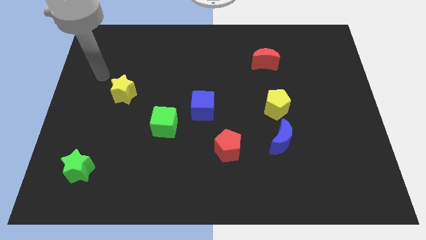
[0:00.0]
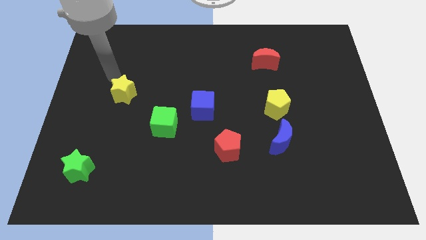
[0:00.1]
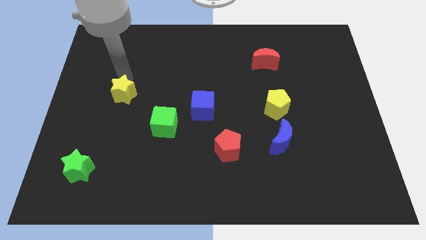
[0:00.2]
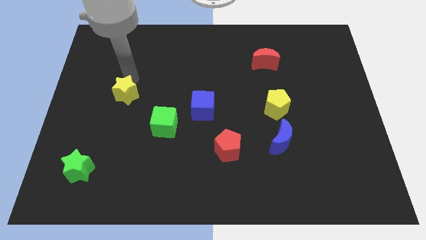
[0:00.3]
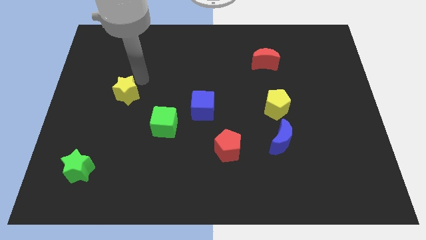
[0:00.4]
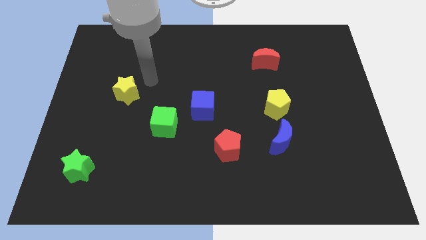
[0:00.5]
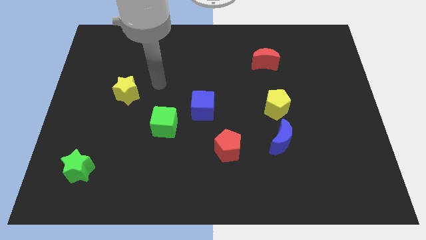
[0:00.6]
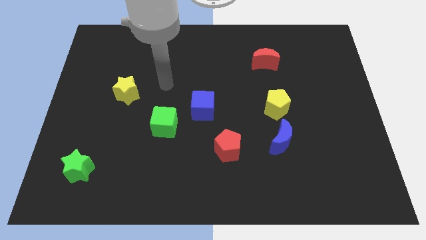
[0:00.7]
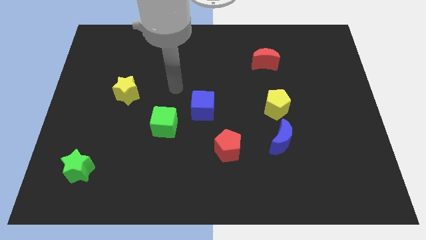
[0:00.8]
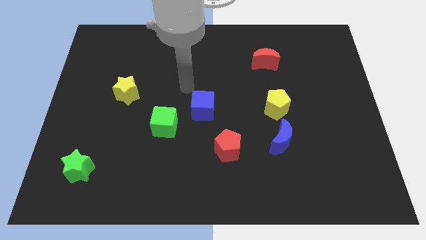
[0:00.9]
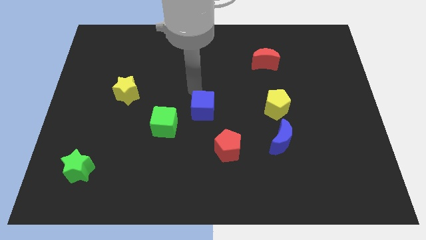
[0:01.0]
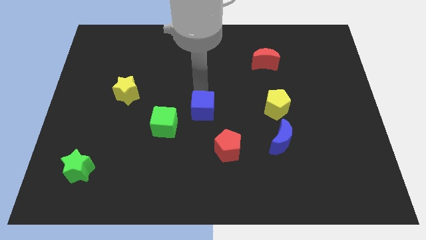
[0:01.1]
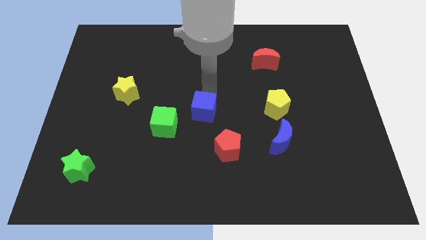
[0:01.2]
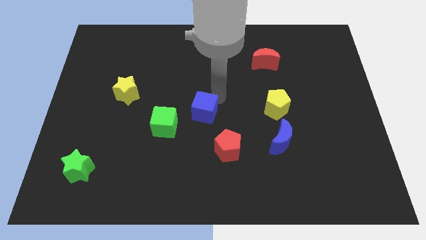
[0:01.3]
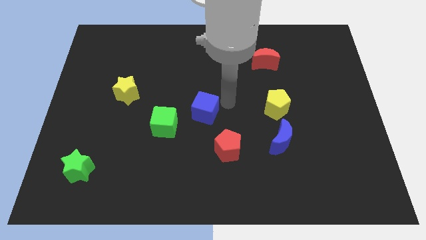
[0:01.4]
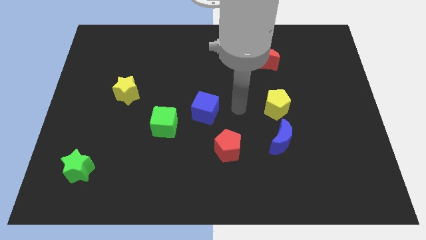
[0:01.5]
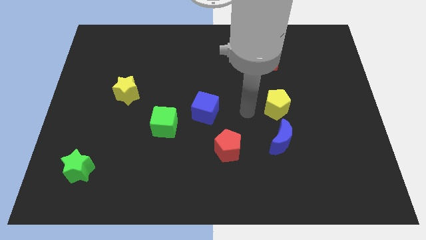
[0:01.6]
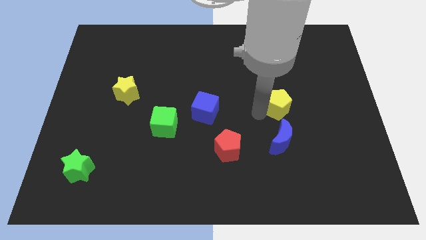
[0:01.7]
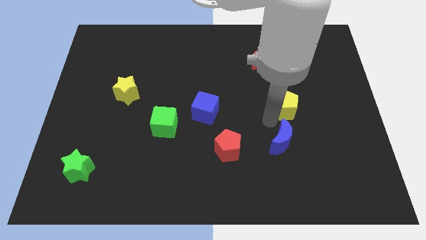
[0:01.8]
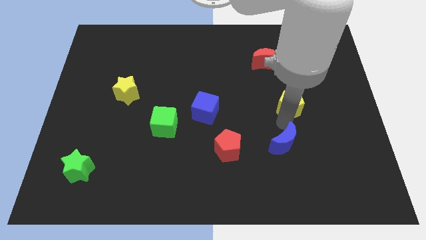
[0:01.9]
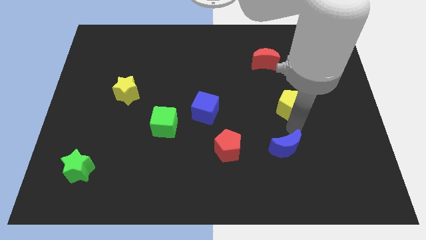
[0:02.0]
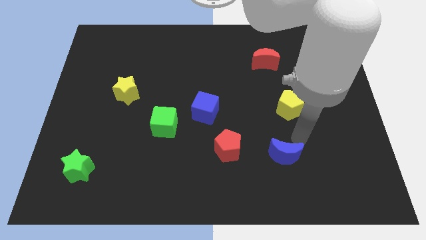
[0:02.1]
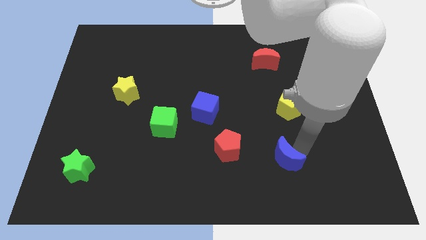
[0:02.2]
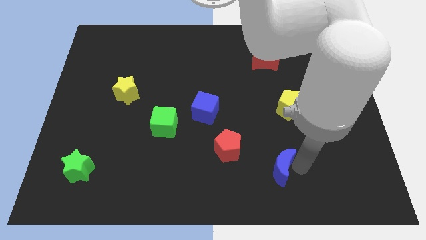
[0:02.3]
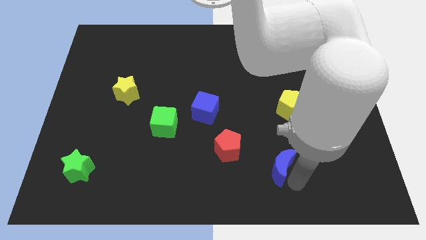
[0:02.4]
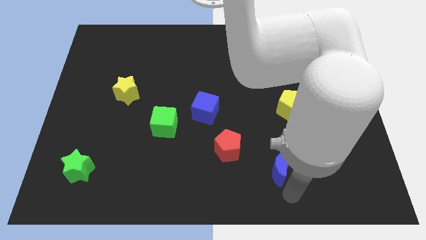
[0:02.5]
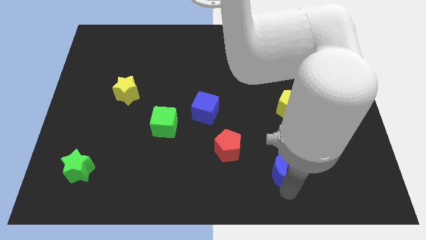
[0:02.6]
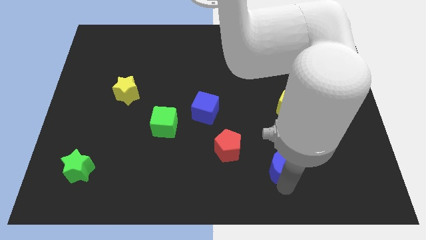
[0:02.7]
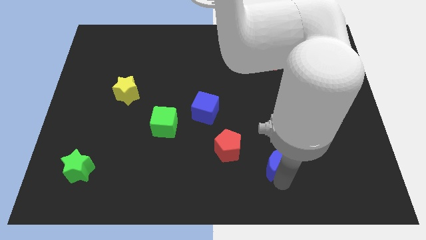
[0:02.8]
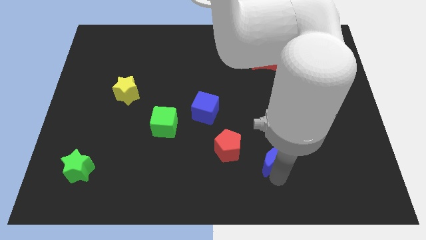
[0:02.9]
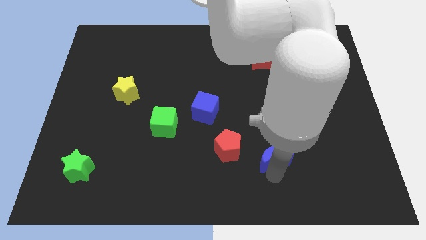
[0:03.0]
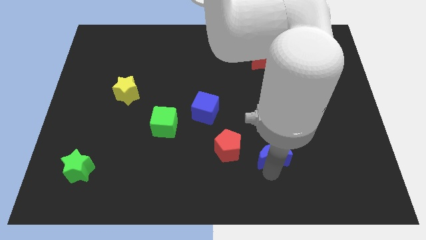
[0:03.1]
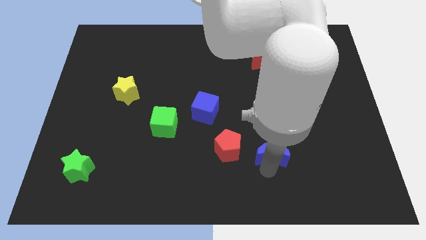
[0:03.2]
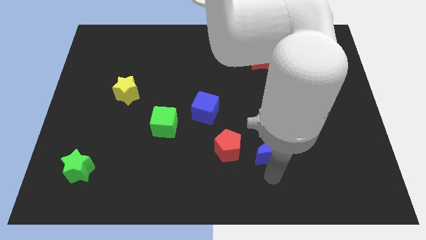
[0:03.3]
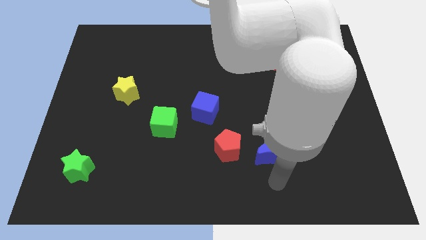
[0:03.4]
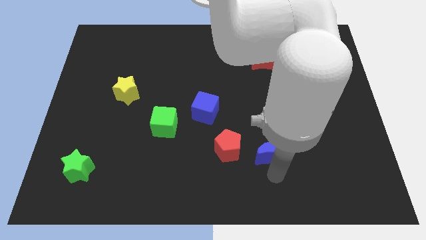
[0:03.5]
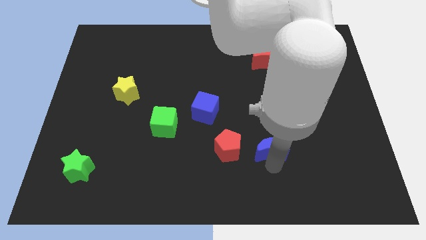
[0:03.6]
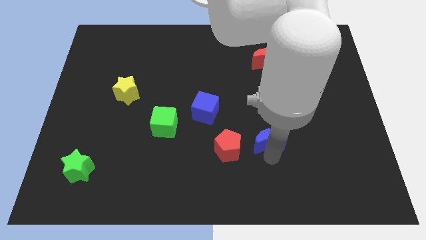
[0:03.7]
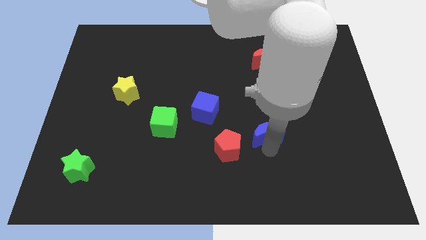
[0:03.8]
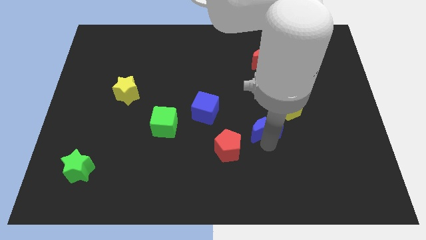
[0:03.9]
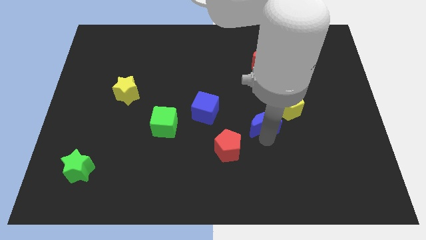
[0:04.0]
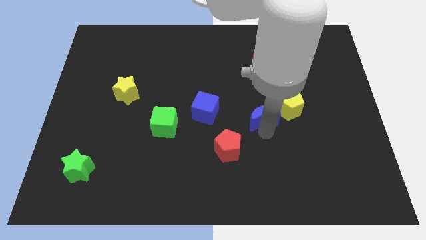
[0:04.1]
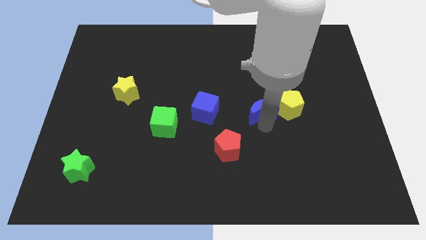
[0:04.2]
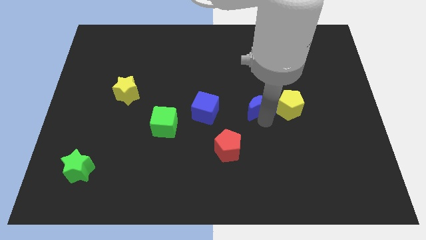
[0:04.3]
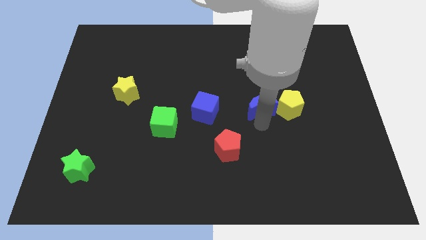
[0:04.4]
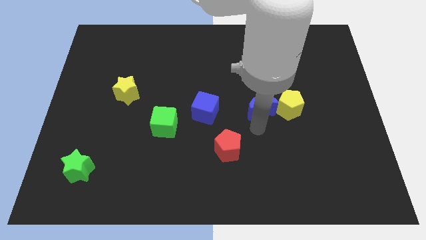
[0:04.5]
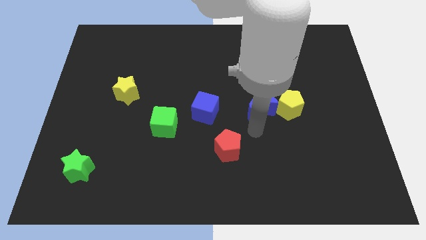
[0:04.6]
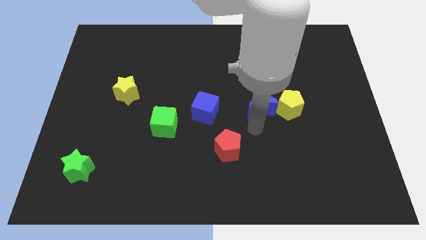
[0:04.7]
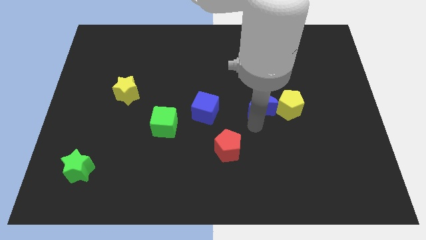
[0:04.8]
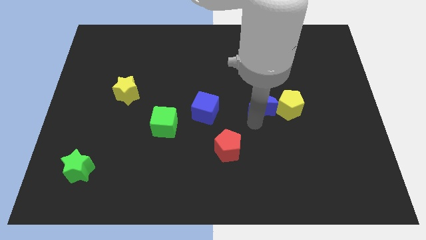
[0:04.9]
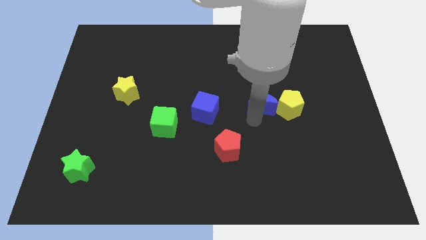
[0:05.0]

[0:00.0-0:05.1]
push the blue moon to the top left of the yellow pentagon

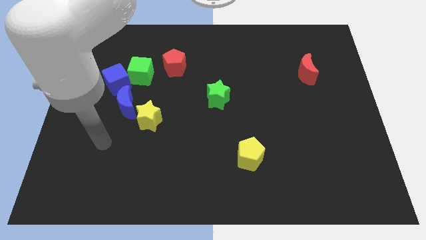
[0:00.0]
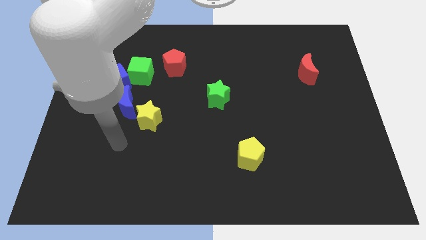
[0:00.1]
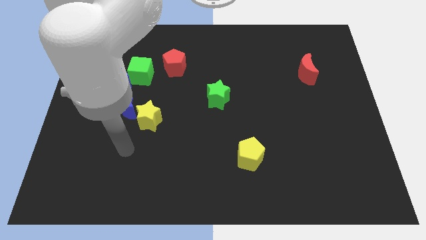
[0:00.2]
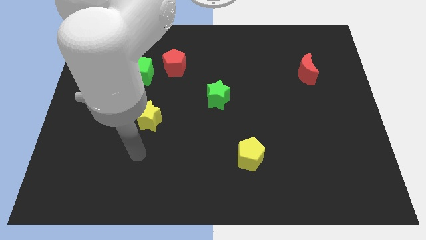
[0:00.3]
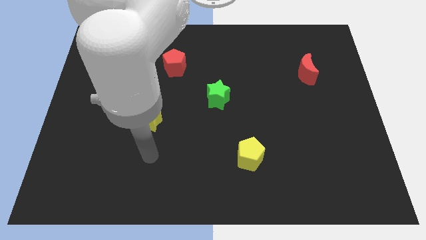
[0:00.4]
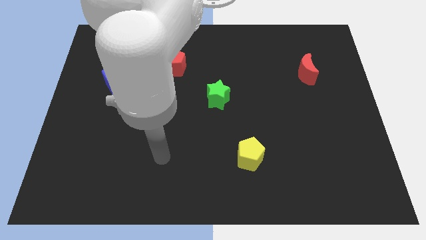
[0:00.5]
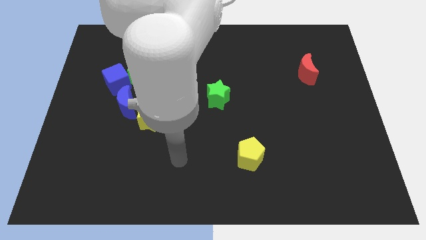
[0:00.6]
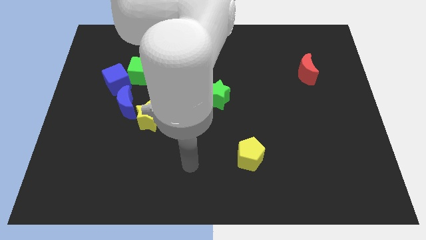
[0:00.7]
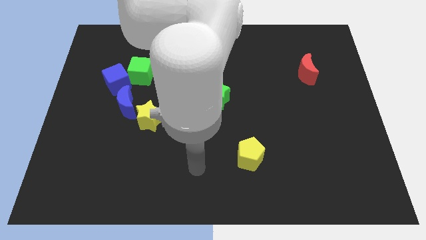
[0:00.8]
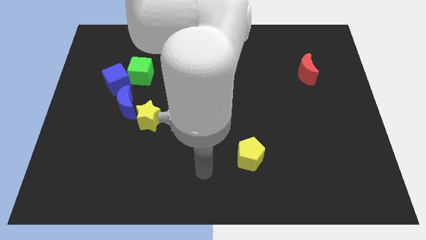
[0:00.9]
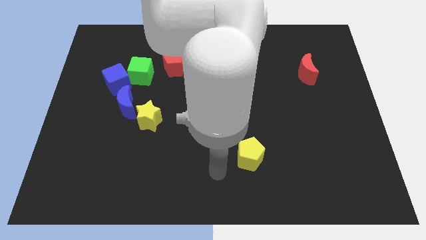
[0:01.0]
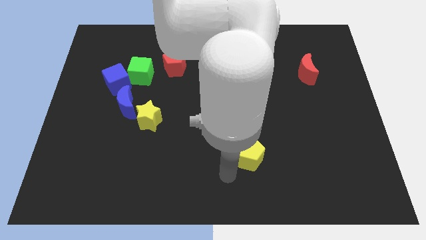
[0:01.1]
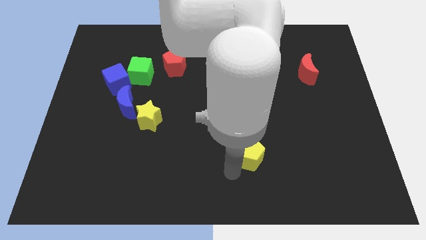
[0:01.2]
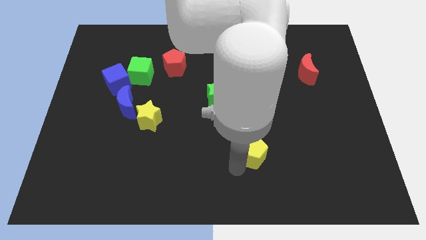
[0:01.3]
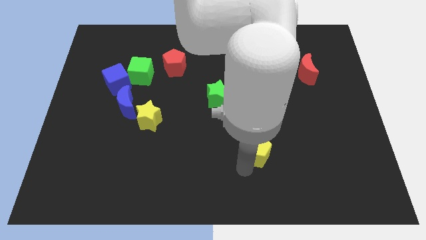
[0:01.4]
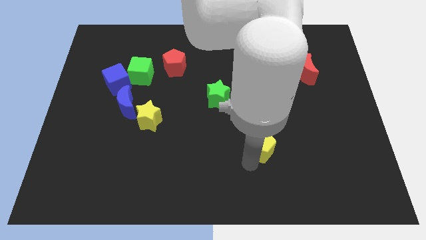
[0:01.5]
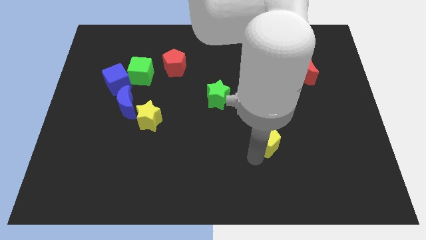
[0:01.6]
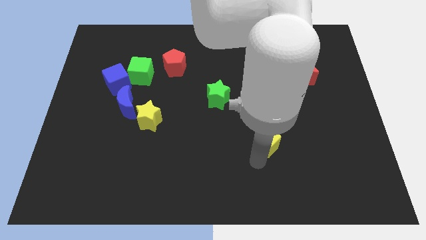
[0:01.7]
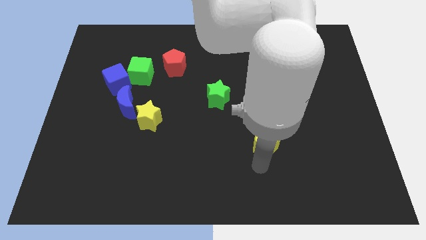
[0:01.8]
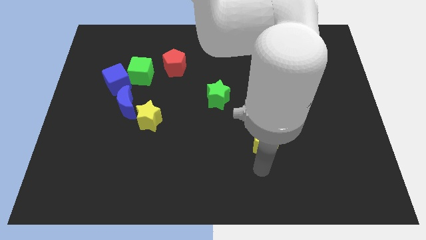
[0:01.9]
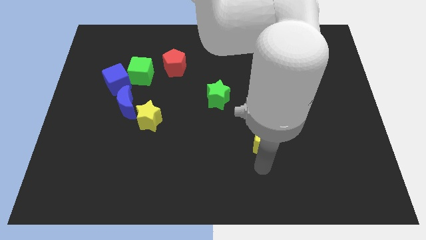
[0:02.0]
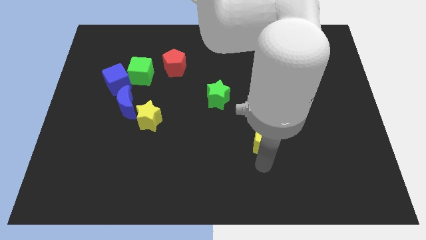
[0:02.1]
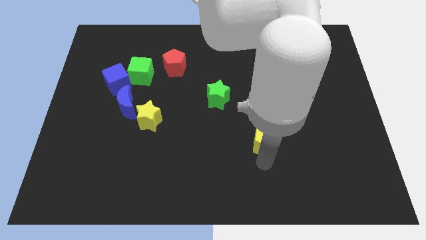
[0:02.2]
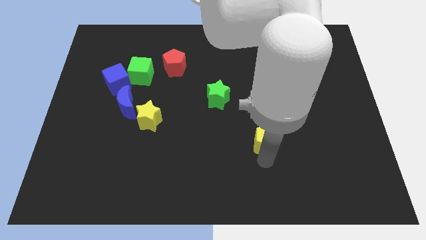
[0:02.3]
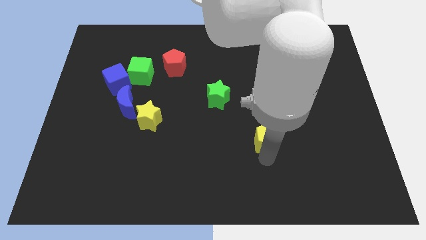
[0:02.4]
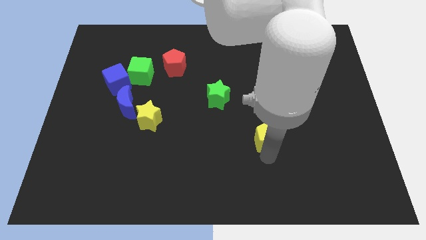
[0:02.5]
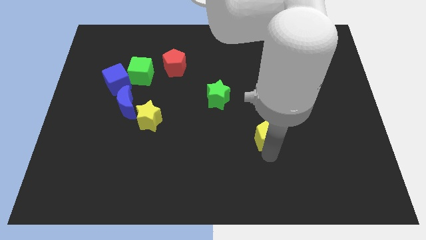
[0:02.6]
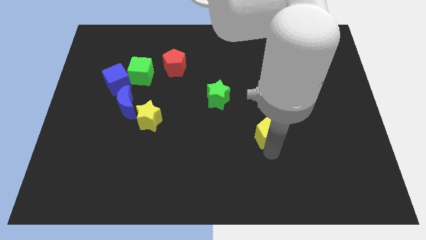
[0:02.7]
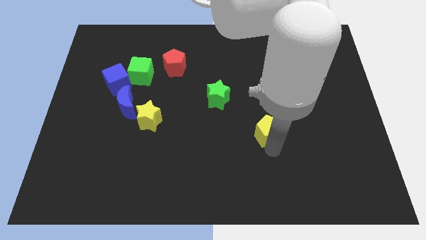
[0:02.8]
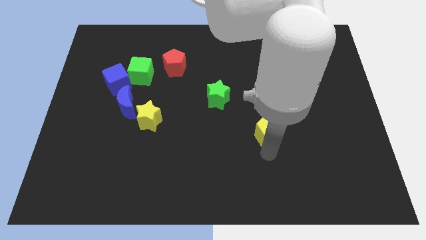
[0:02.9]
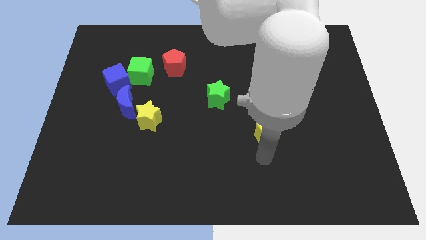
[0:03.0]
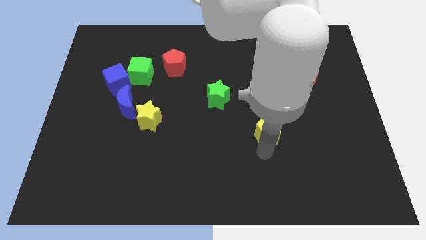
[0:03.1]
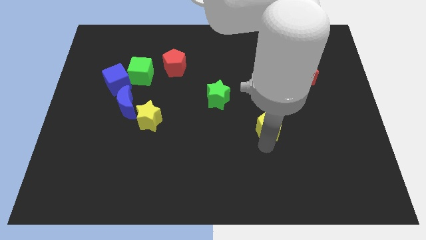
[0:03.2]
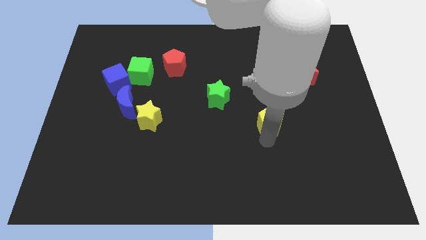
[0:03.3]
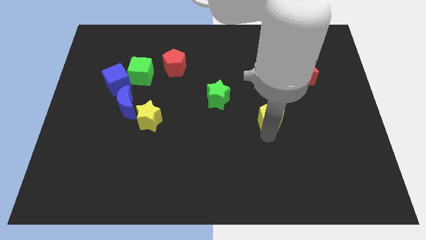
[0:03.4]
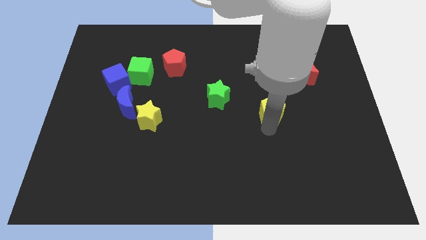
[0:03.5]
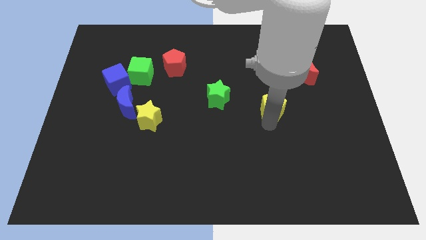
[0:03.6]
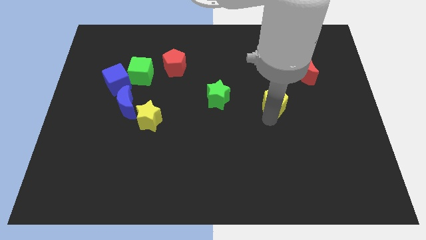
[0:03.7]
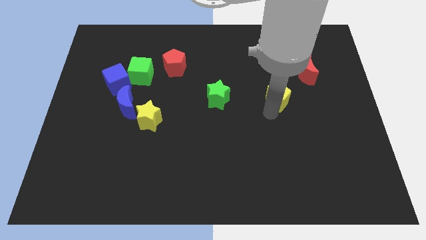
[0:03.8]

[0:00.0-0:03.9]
put the yellow pentagon to the bottom left side of the red moon
